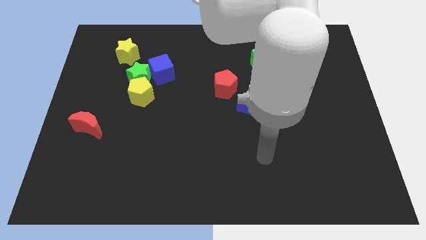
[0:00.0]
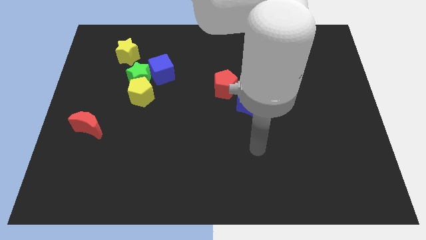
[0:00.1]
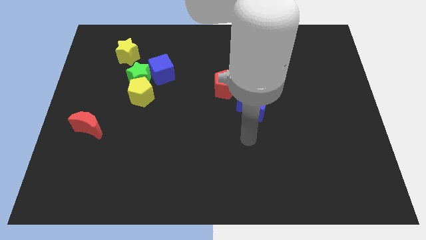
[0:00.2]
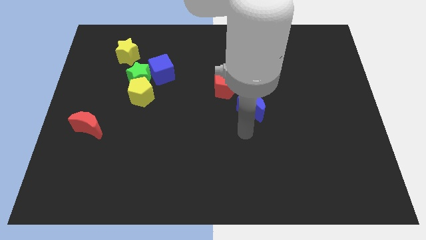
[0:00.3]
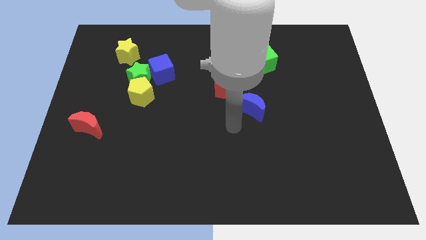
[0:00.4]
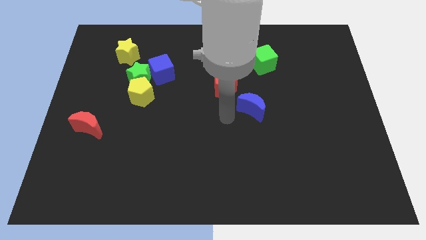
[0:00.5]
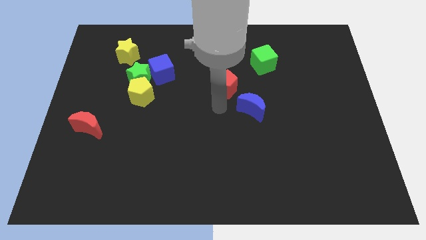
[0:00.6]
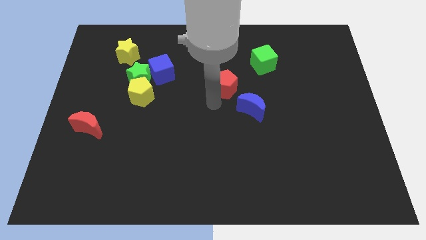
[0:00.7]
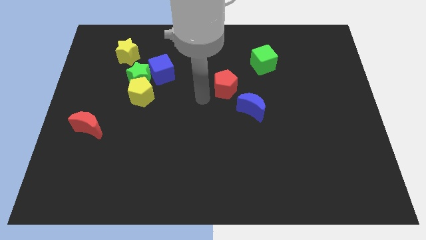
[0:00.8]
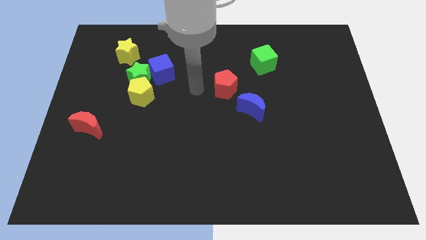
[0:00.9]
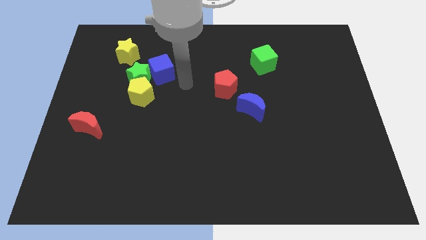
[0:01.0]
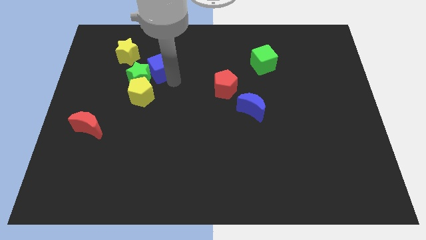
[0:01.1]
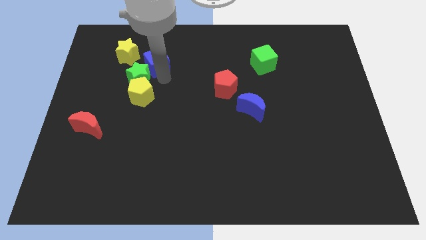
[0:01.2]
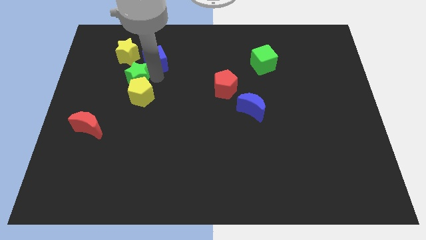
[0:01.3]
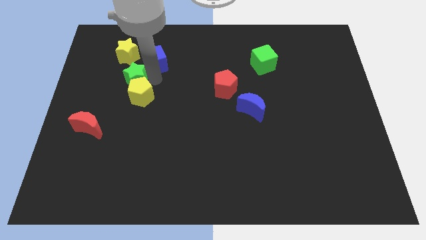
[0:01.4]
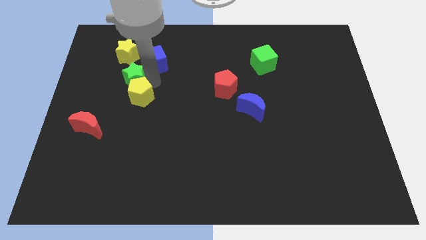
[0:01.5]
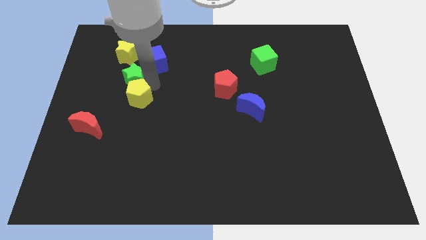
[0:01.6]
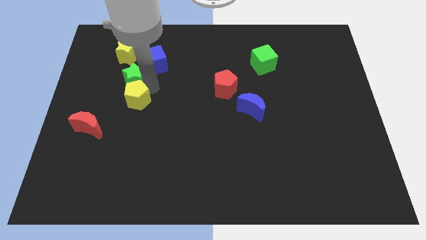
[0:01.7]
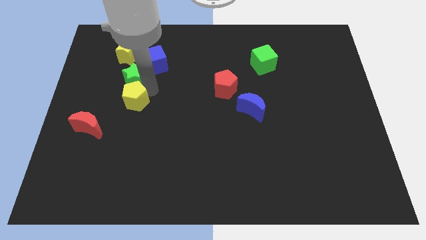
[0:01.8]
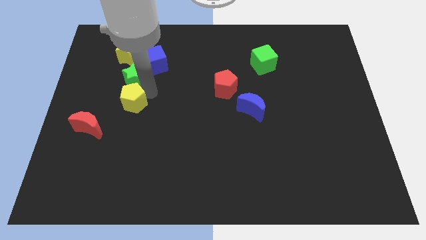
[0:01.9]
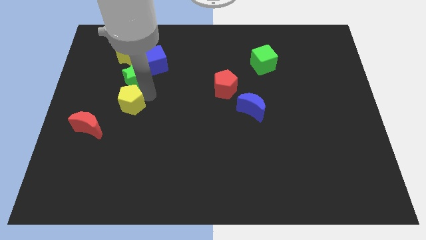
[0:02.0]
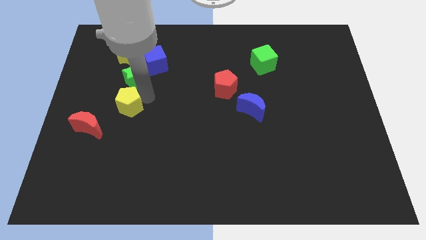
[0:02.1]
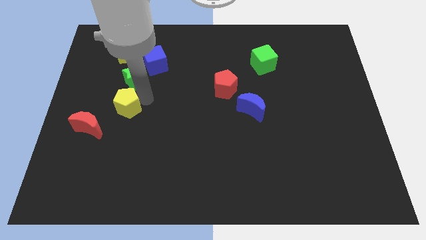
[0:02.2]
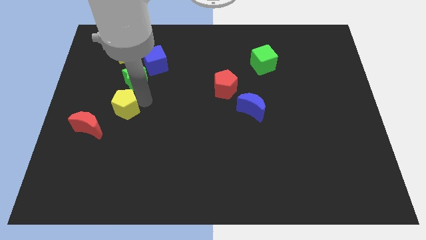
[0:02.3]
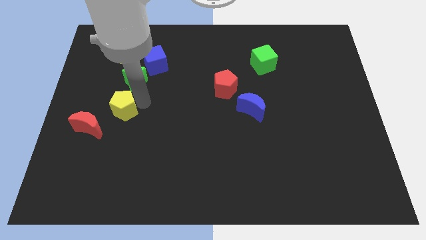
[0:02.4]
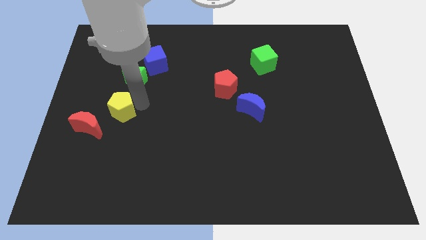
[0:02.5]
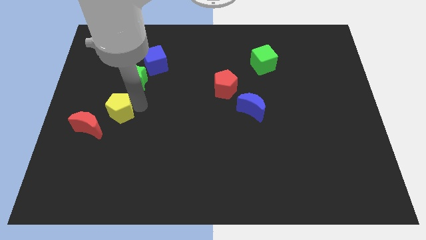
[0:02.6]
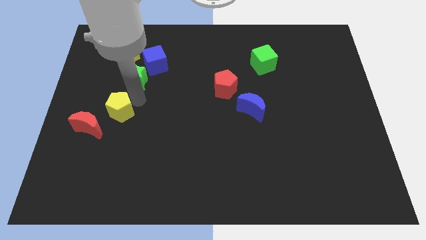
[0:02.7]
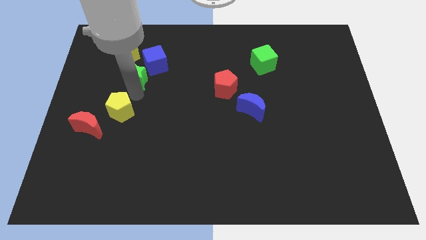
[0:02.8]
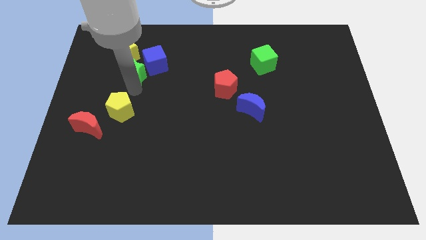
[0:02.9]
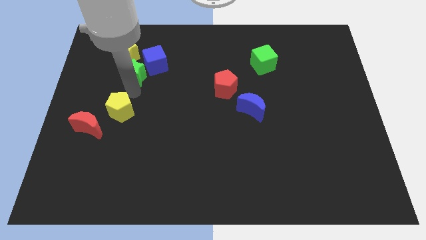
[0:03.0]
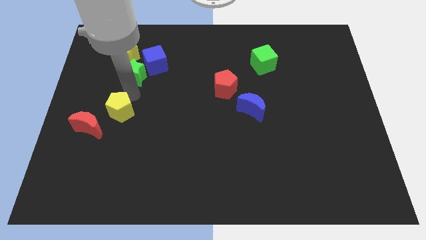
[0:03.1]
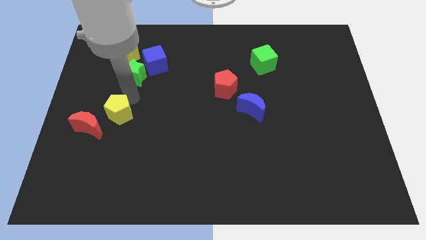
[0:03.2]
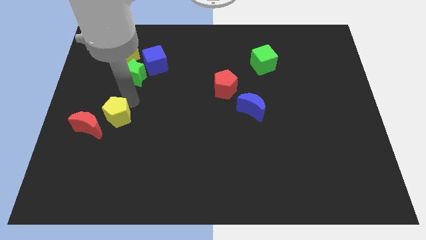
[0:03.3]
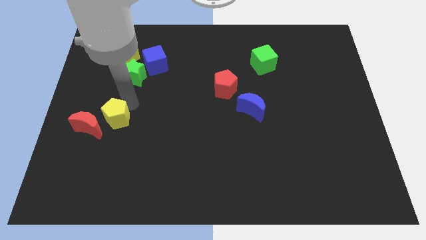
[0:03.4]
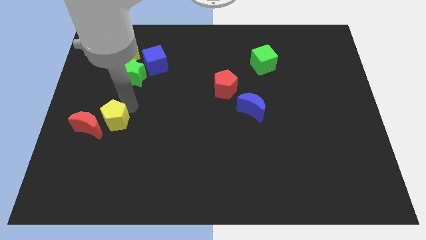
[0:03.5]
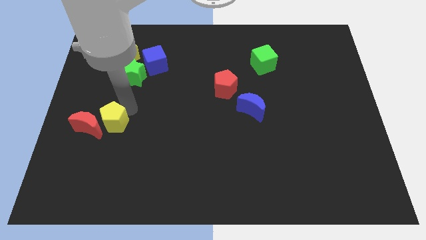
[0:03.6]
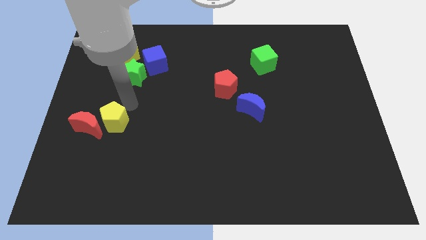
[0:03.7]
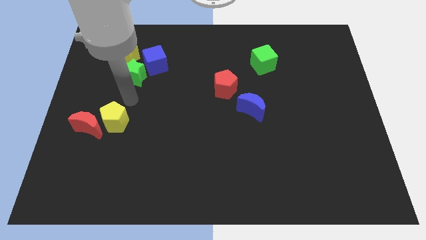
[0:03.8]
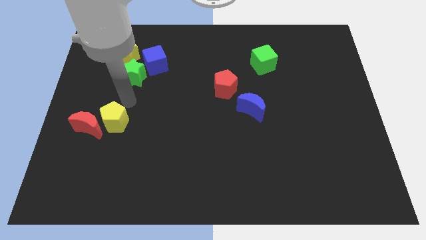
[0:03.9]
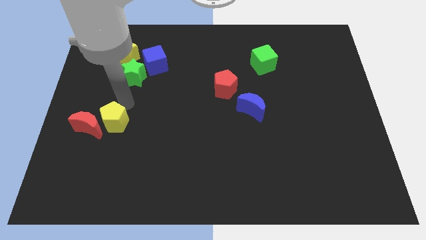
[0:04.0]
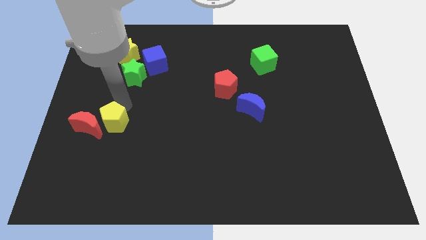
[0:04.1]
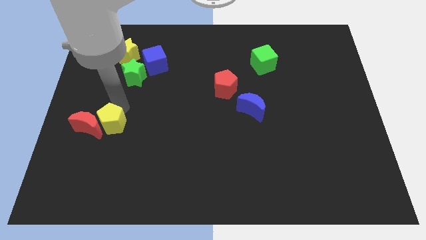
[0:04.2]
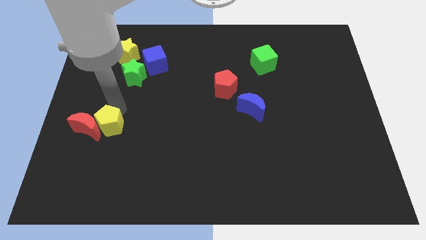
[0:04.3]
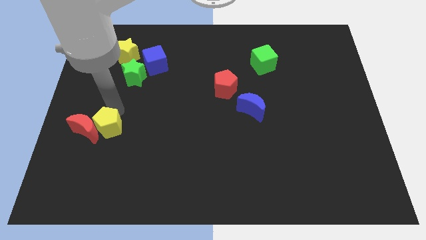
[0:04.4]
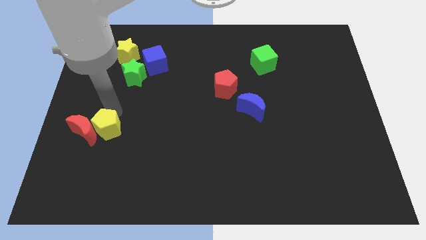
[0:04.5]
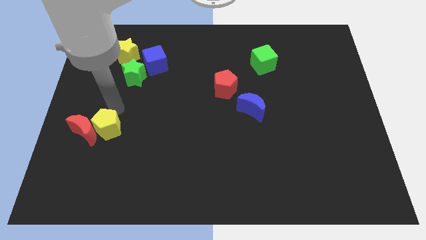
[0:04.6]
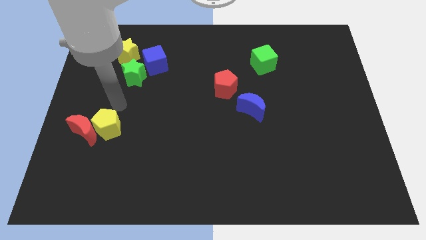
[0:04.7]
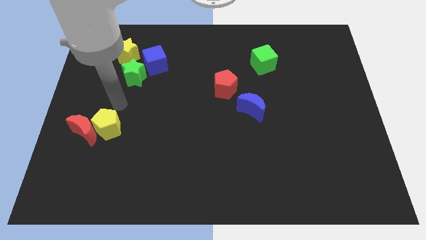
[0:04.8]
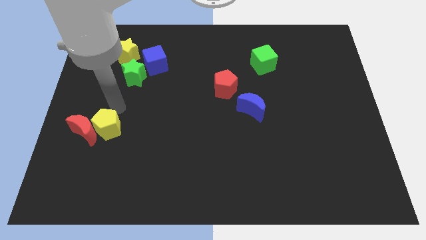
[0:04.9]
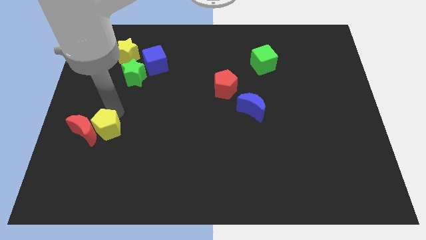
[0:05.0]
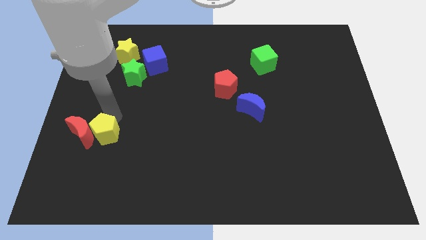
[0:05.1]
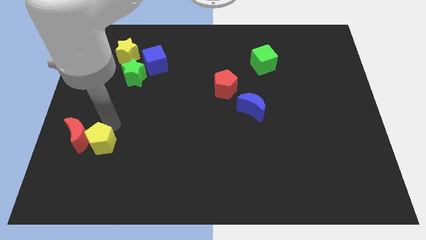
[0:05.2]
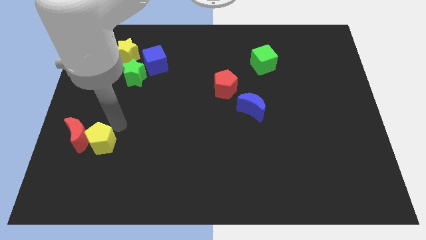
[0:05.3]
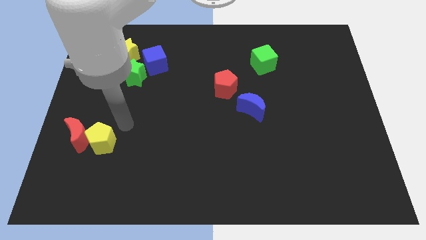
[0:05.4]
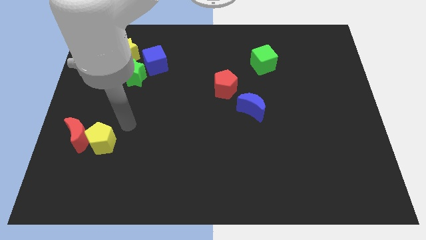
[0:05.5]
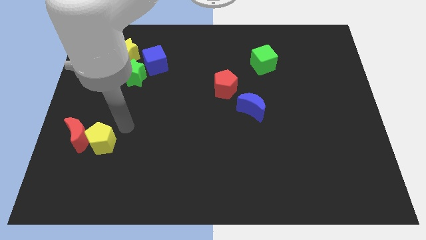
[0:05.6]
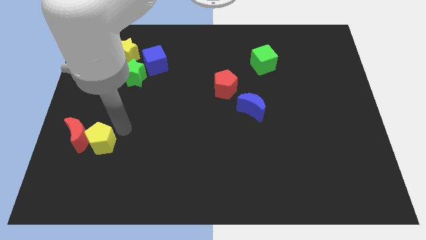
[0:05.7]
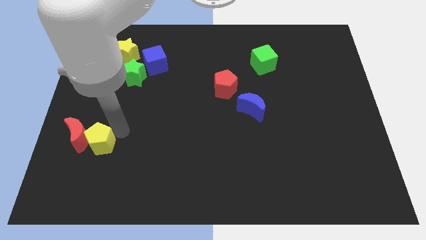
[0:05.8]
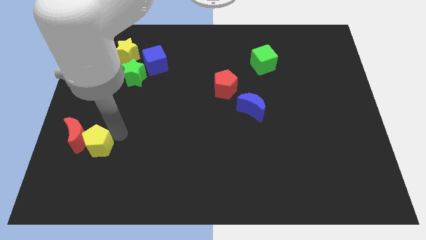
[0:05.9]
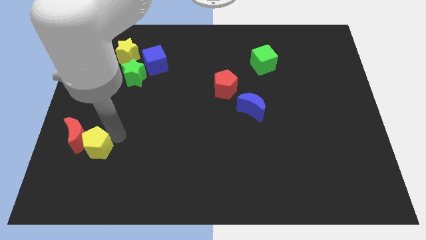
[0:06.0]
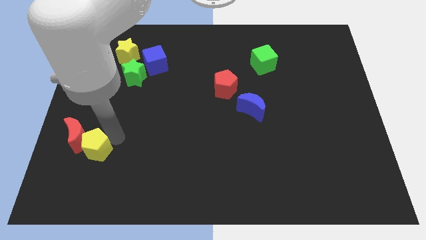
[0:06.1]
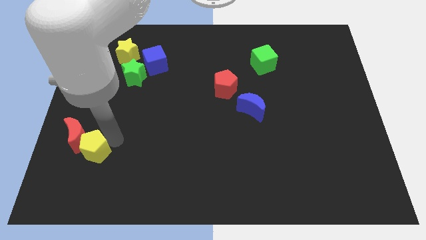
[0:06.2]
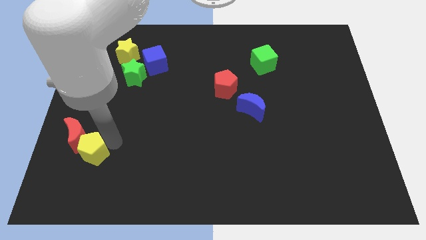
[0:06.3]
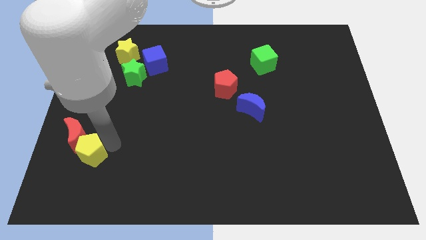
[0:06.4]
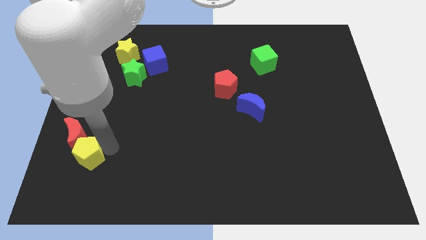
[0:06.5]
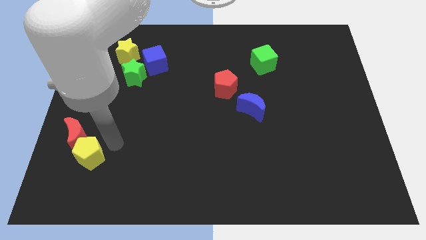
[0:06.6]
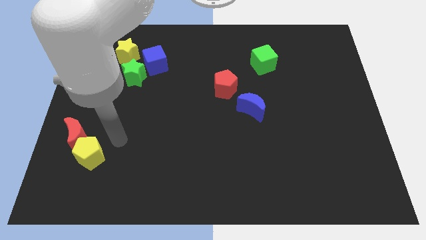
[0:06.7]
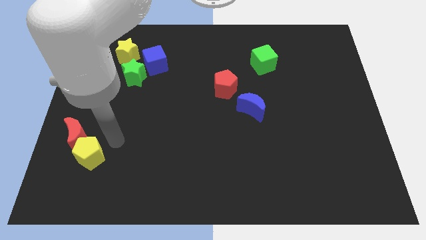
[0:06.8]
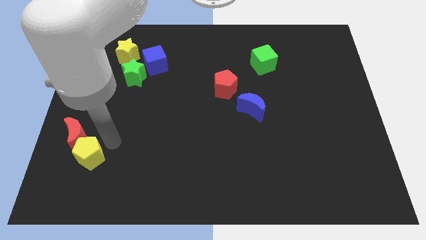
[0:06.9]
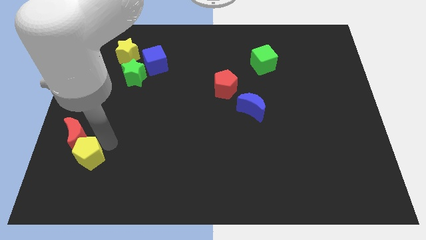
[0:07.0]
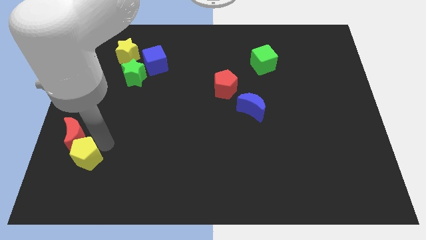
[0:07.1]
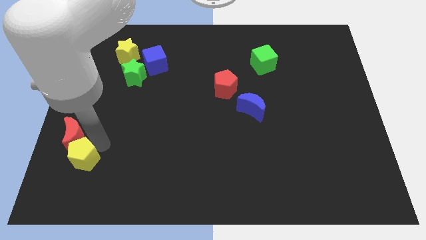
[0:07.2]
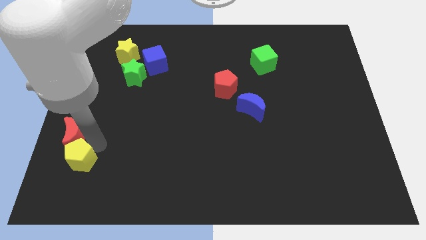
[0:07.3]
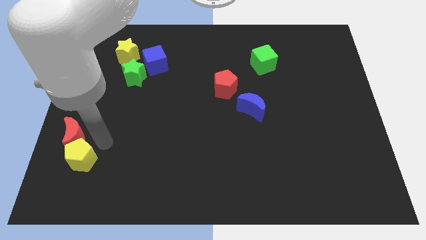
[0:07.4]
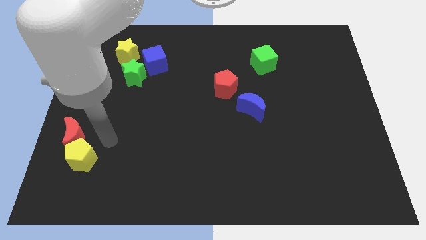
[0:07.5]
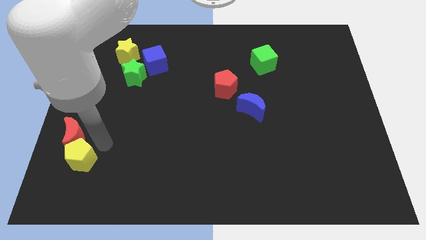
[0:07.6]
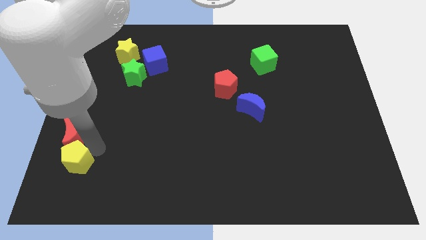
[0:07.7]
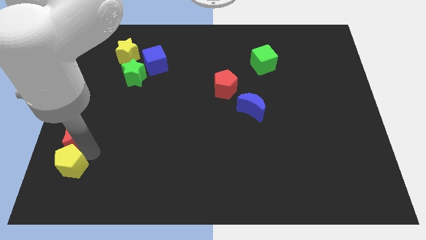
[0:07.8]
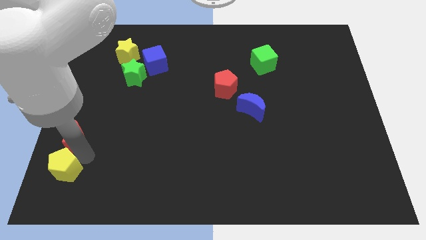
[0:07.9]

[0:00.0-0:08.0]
move the yellow pentagon to the bottom left corner
